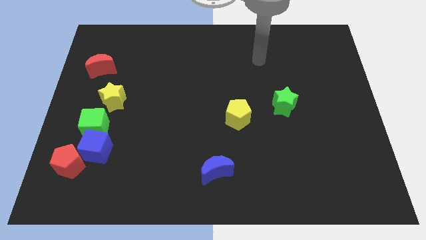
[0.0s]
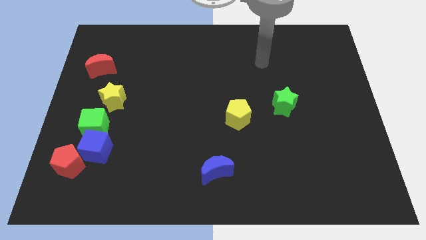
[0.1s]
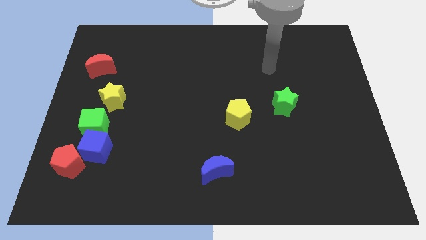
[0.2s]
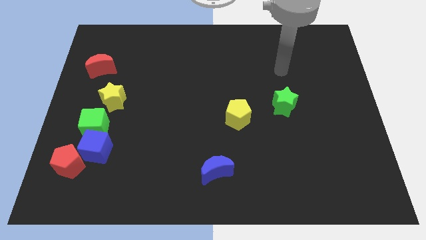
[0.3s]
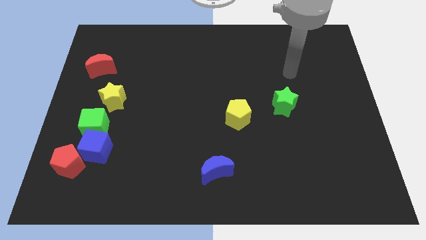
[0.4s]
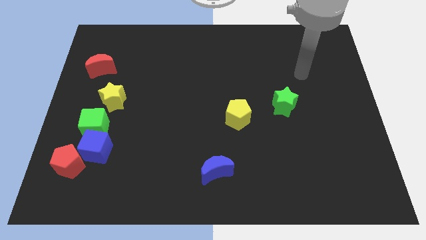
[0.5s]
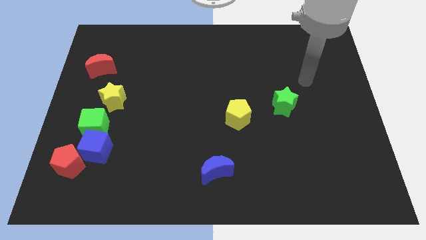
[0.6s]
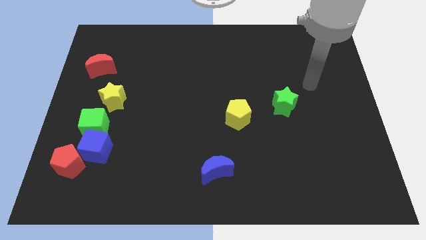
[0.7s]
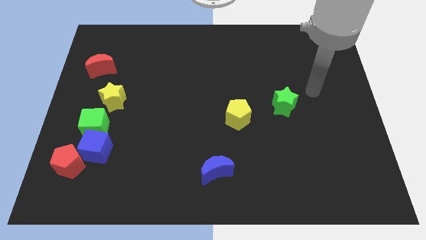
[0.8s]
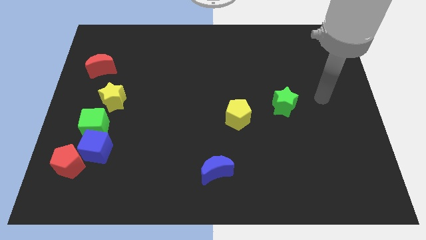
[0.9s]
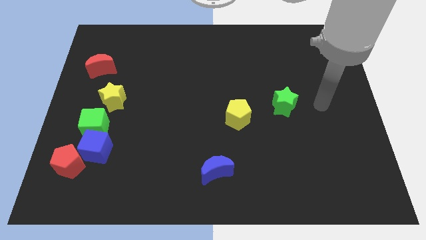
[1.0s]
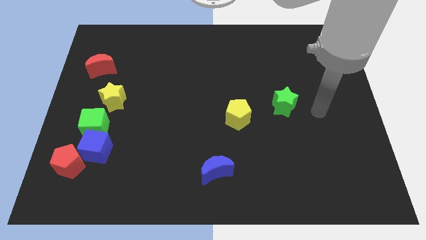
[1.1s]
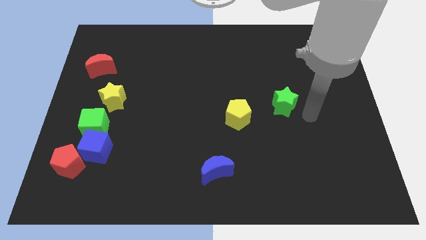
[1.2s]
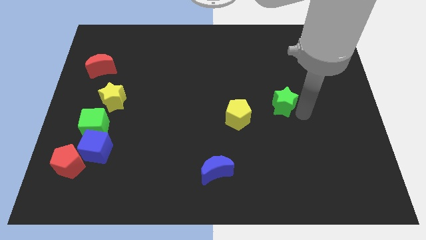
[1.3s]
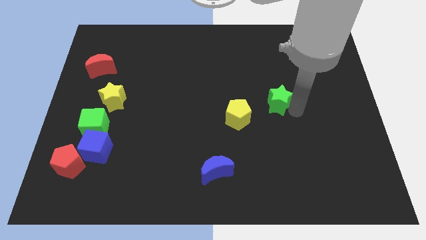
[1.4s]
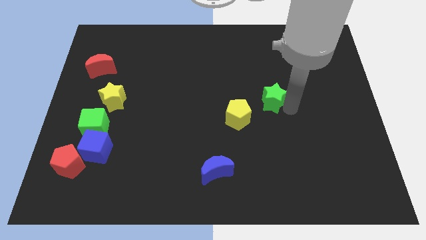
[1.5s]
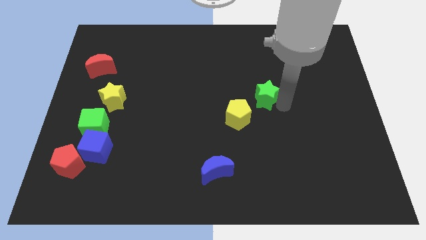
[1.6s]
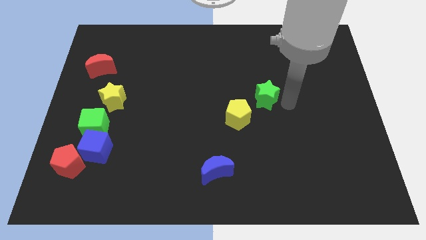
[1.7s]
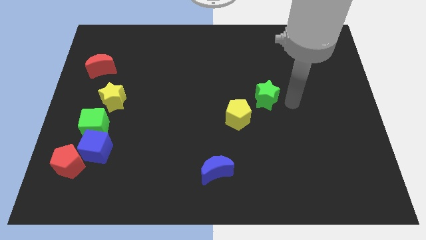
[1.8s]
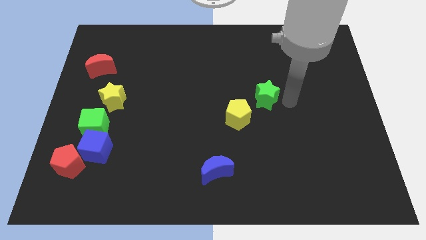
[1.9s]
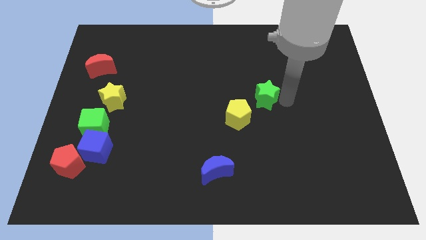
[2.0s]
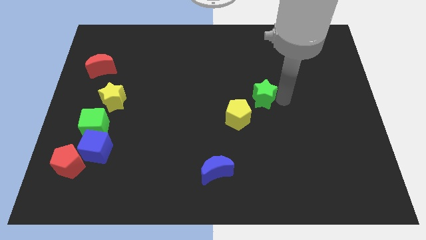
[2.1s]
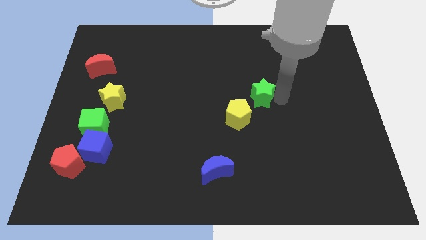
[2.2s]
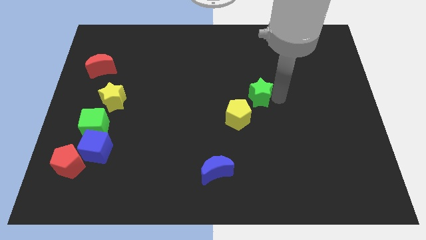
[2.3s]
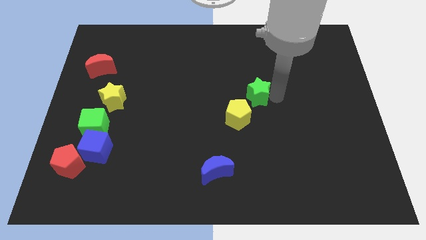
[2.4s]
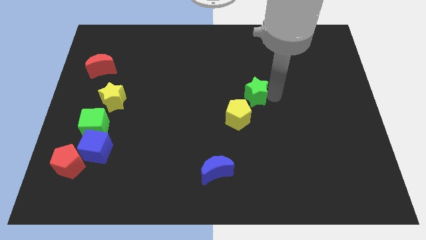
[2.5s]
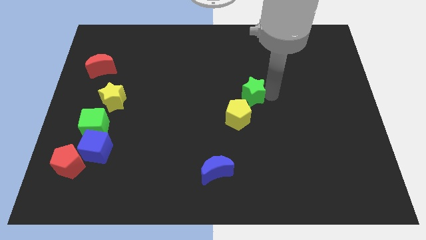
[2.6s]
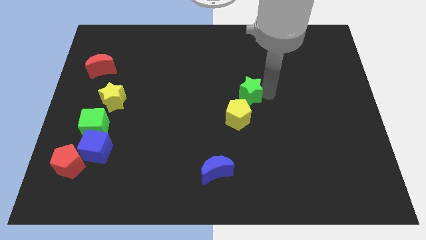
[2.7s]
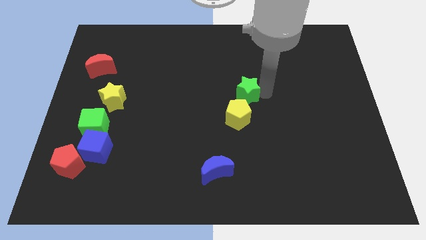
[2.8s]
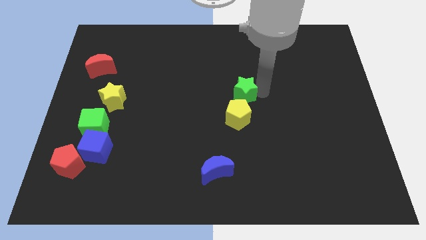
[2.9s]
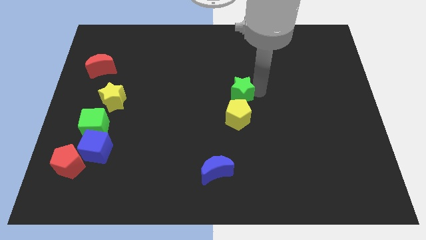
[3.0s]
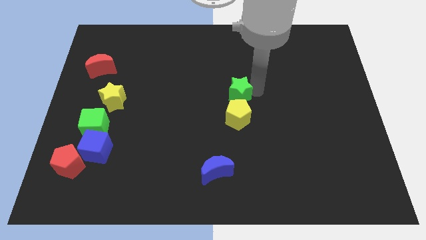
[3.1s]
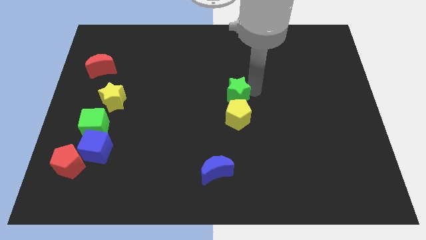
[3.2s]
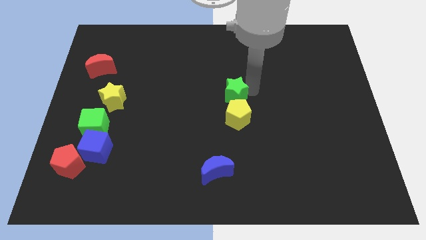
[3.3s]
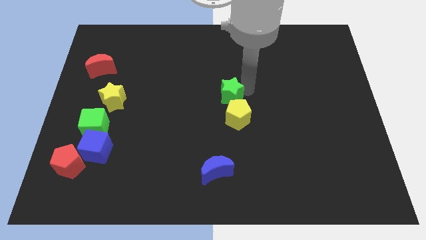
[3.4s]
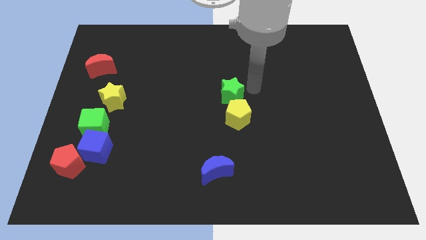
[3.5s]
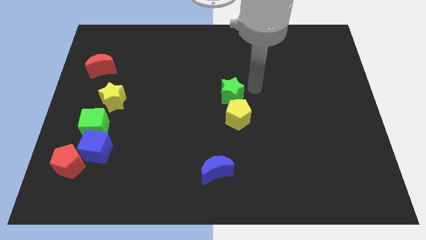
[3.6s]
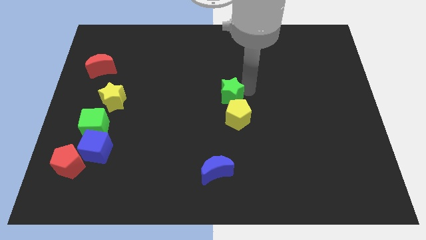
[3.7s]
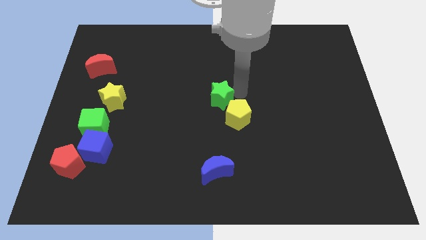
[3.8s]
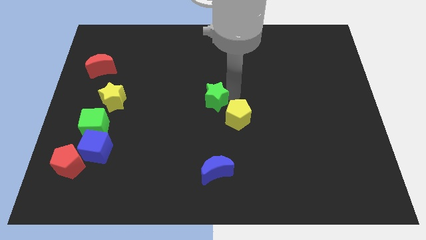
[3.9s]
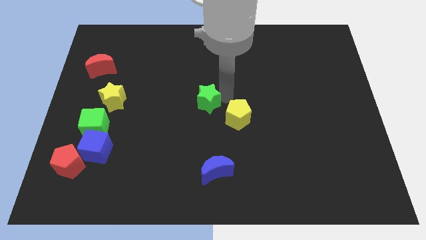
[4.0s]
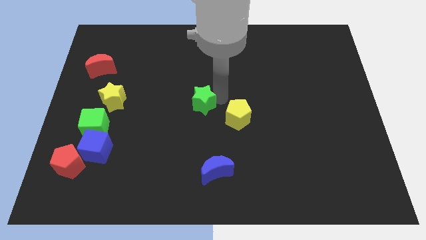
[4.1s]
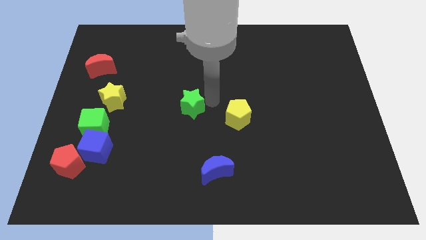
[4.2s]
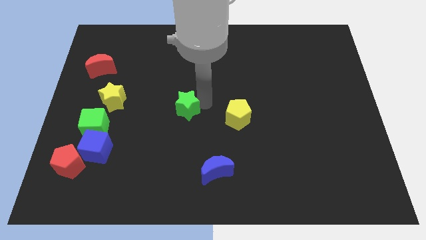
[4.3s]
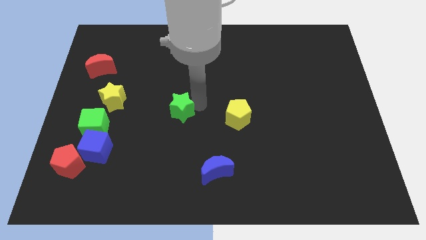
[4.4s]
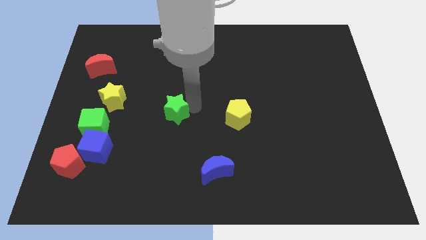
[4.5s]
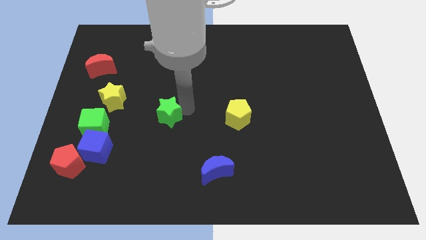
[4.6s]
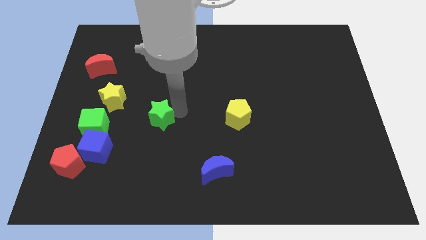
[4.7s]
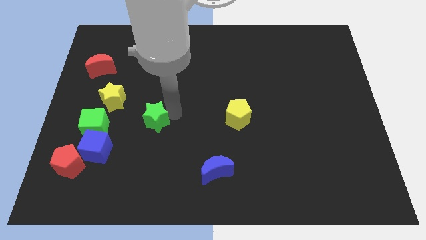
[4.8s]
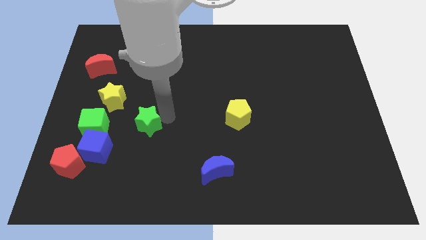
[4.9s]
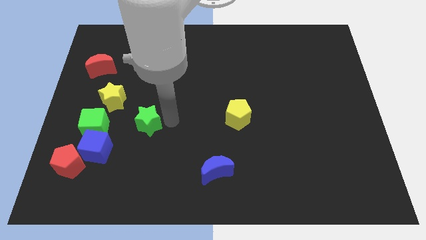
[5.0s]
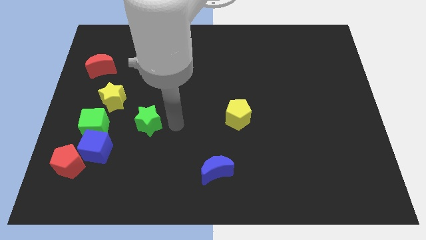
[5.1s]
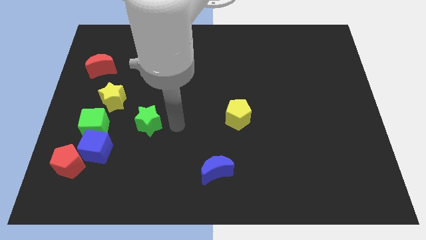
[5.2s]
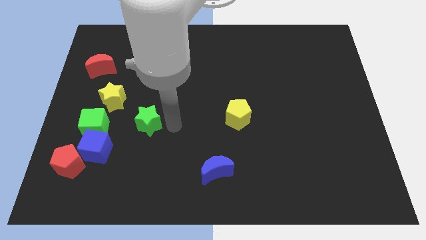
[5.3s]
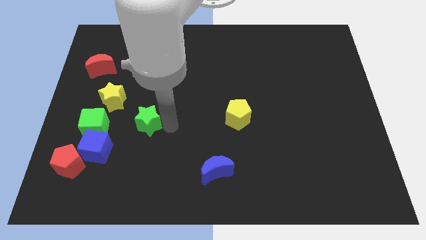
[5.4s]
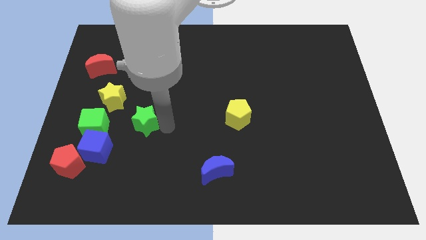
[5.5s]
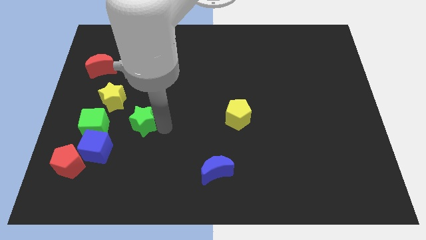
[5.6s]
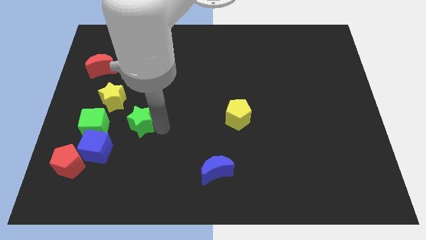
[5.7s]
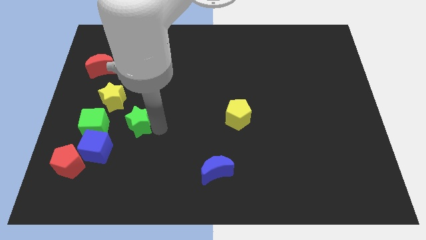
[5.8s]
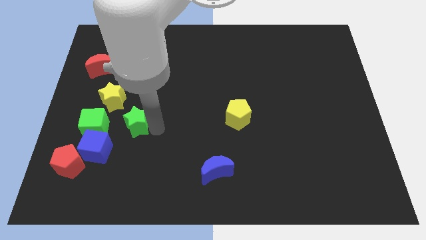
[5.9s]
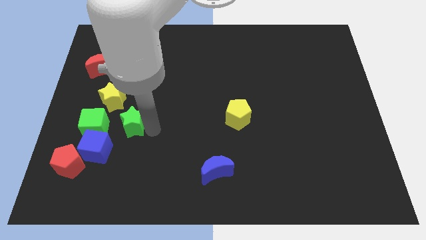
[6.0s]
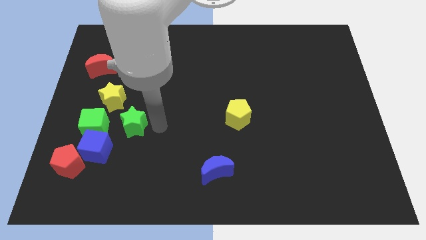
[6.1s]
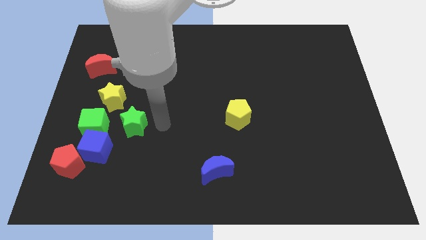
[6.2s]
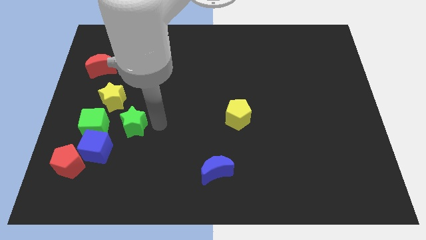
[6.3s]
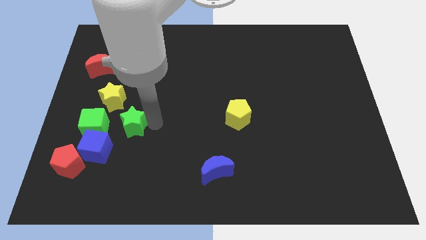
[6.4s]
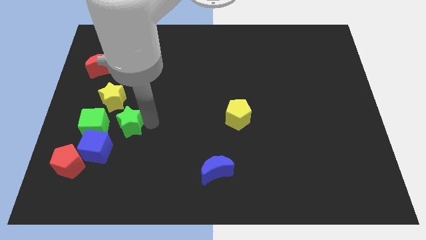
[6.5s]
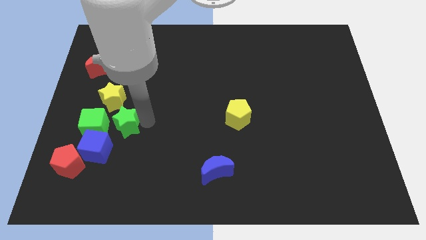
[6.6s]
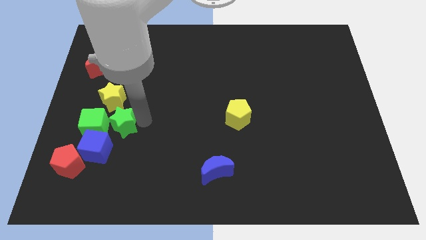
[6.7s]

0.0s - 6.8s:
put the green star towards the green cube

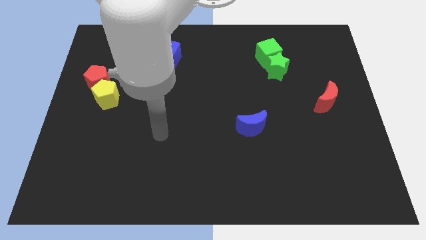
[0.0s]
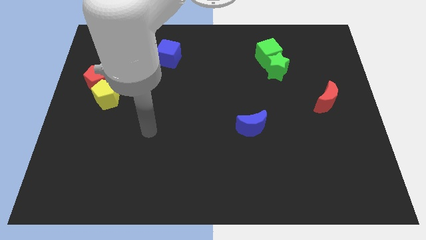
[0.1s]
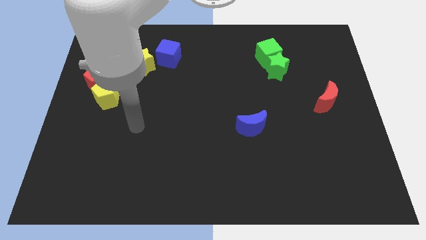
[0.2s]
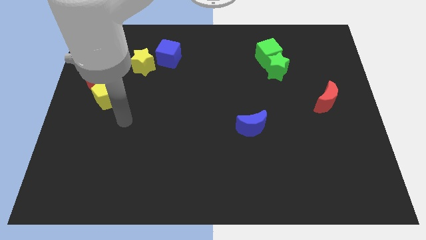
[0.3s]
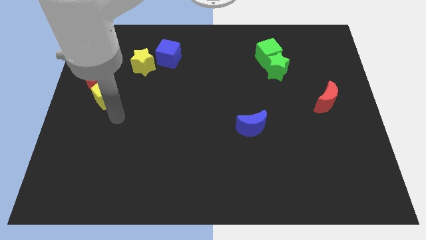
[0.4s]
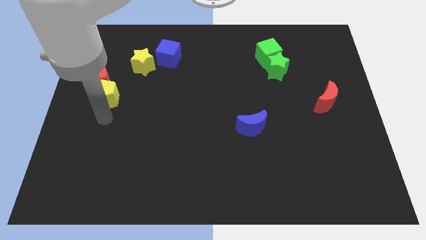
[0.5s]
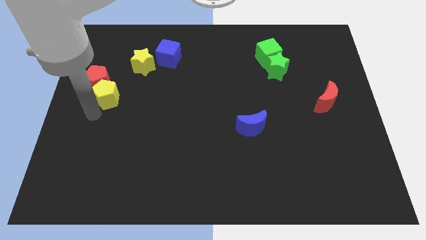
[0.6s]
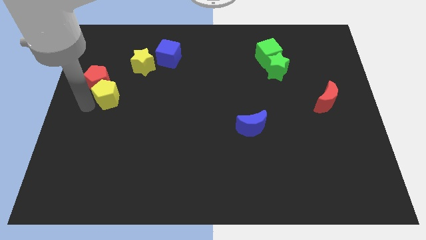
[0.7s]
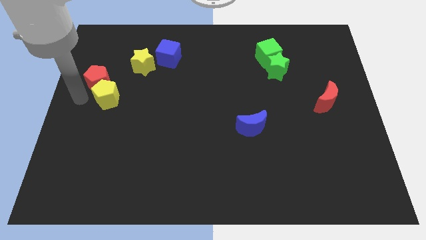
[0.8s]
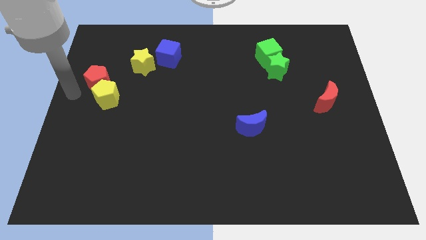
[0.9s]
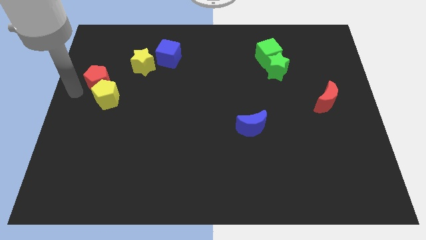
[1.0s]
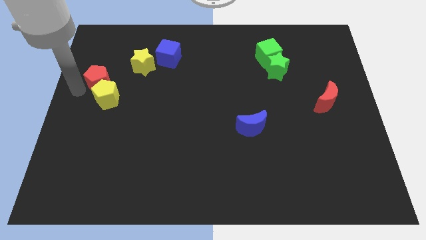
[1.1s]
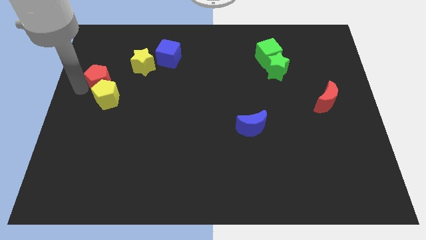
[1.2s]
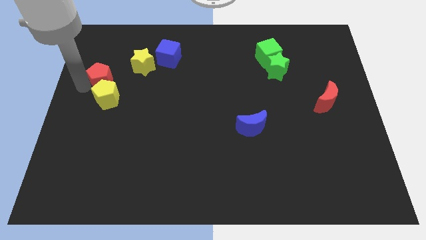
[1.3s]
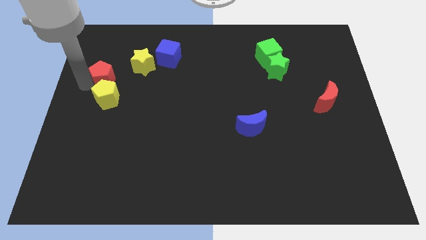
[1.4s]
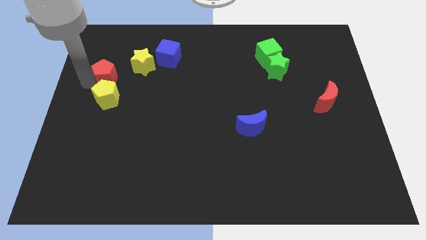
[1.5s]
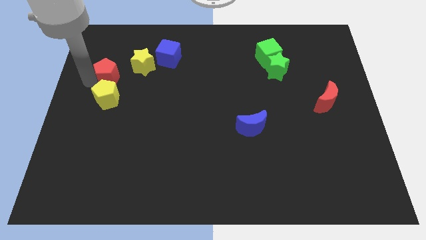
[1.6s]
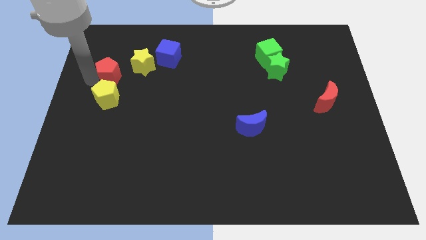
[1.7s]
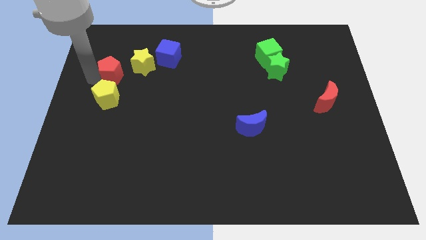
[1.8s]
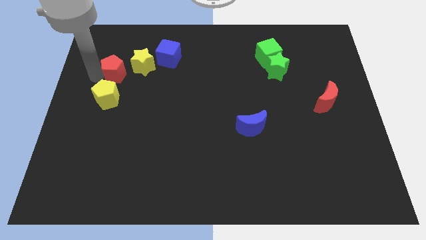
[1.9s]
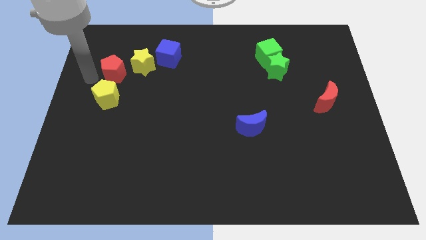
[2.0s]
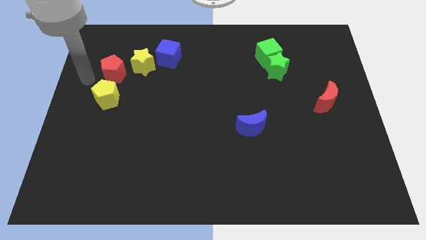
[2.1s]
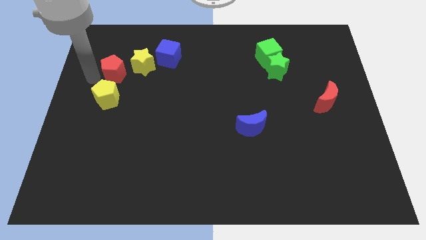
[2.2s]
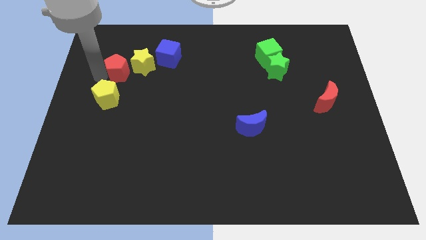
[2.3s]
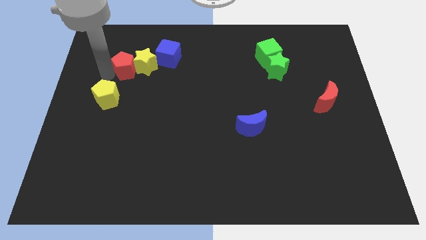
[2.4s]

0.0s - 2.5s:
put the red pentagon towards the yellow star
